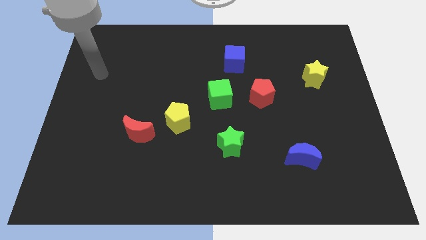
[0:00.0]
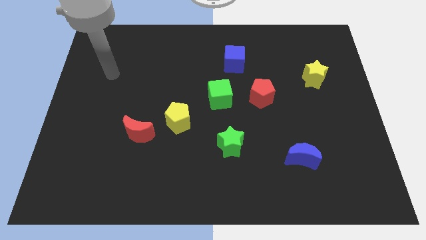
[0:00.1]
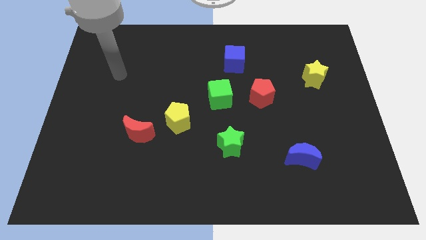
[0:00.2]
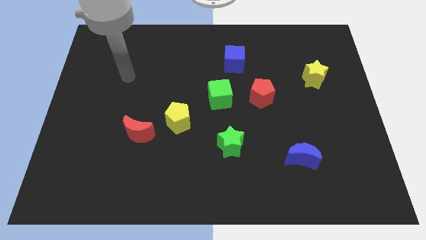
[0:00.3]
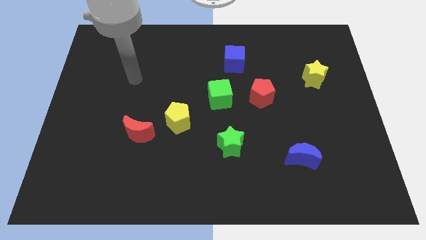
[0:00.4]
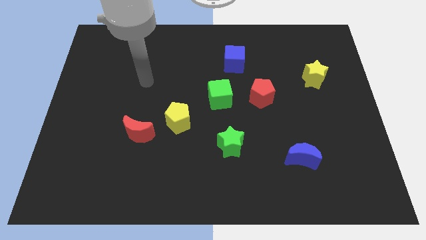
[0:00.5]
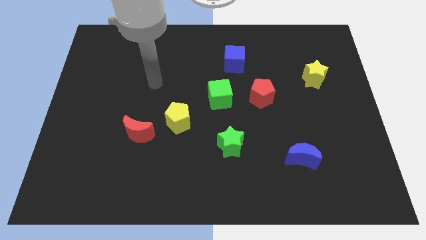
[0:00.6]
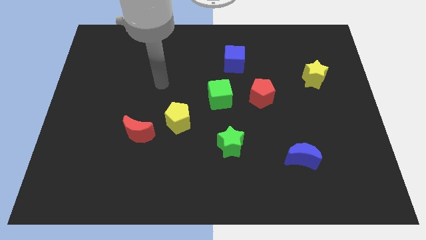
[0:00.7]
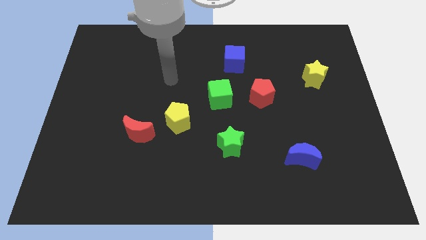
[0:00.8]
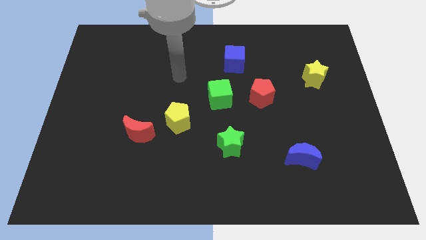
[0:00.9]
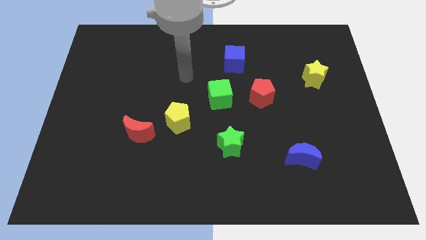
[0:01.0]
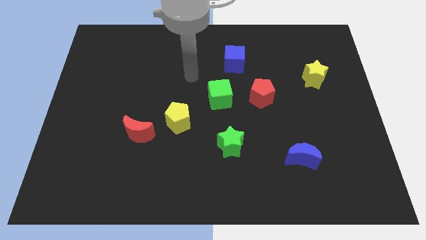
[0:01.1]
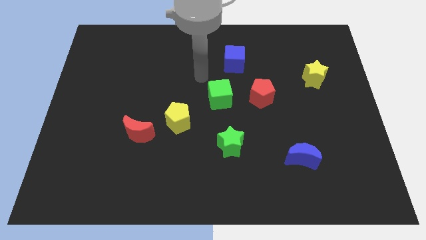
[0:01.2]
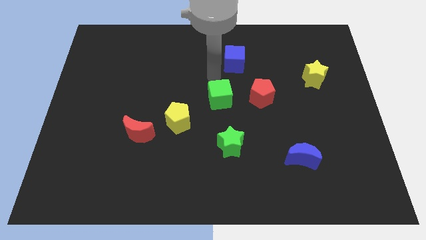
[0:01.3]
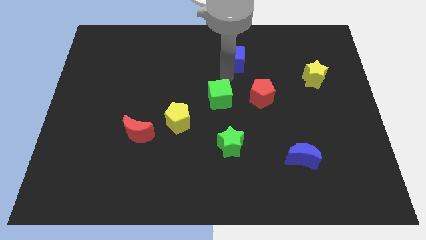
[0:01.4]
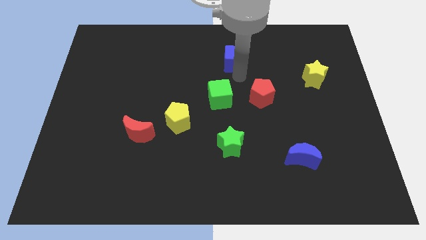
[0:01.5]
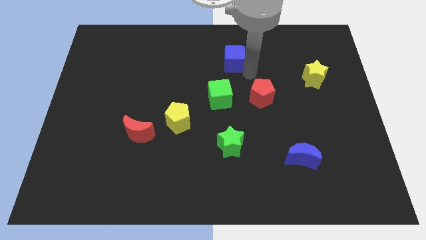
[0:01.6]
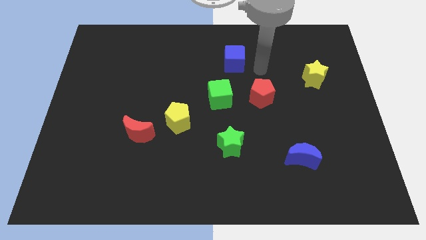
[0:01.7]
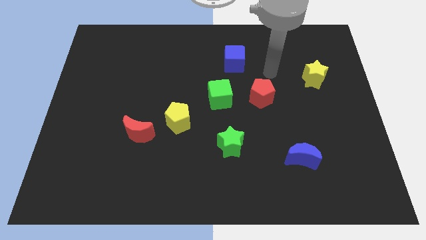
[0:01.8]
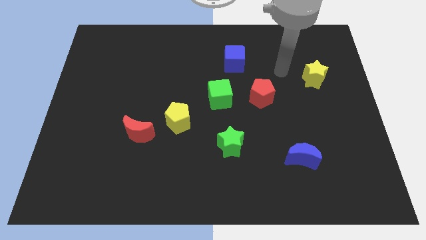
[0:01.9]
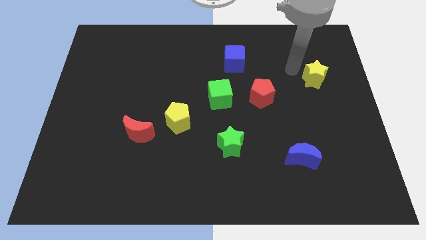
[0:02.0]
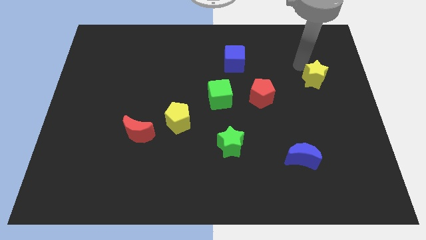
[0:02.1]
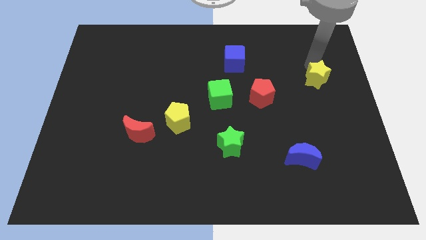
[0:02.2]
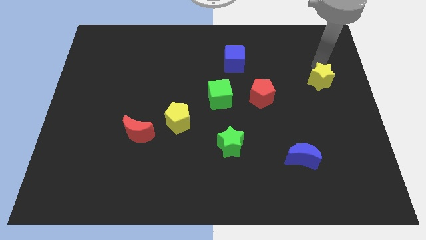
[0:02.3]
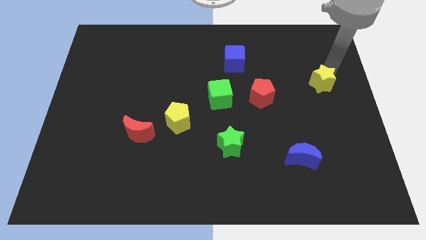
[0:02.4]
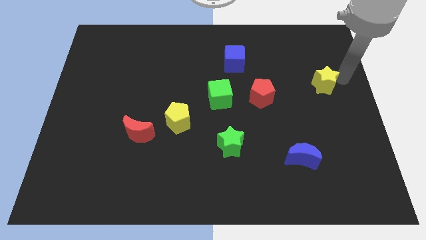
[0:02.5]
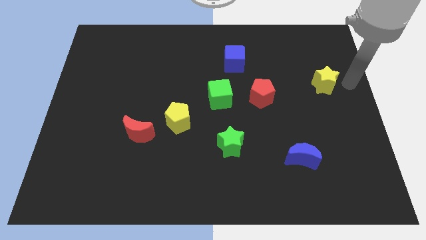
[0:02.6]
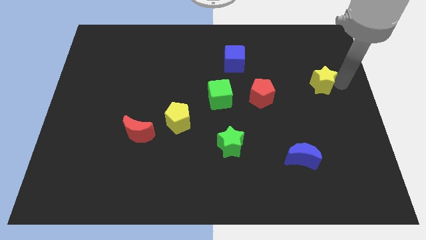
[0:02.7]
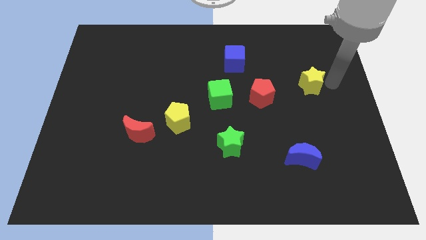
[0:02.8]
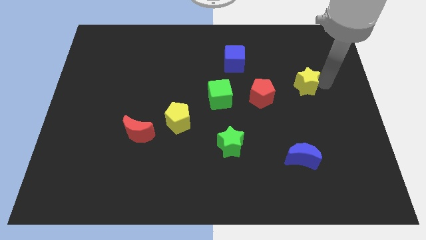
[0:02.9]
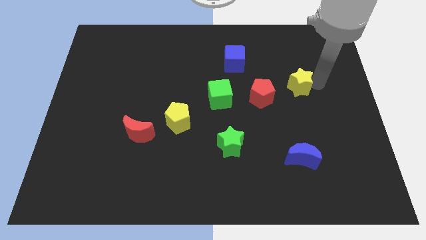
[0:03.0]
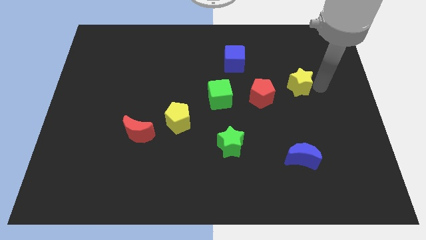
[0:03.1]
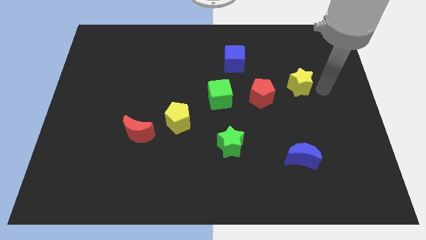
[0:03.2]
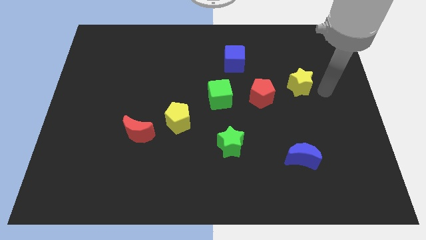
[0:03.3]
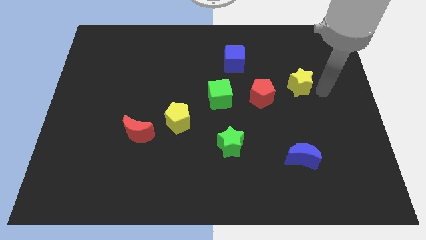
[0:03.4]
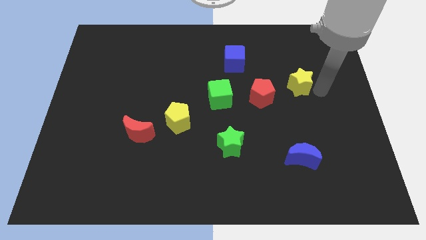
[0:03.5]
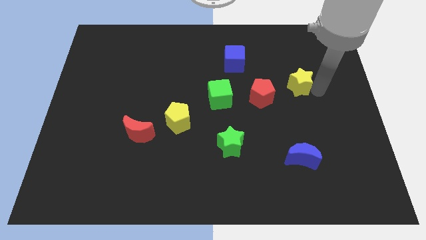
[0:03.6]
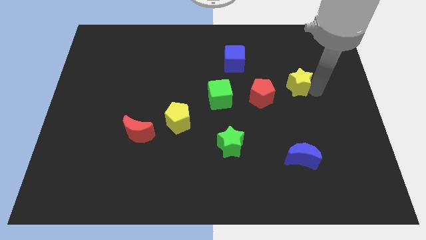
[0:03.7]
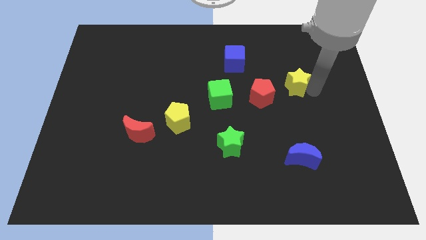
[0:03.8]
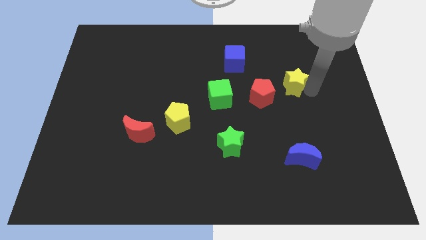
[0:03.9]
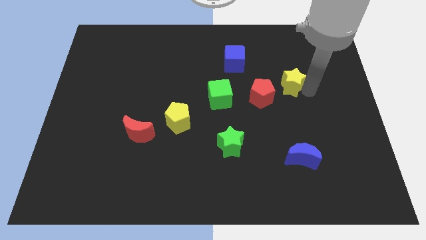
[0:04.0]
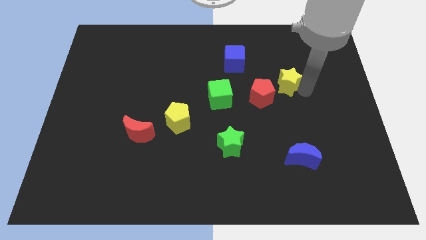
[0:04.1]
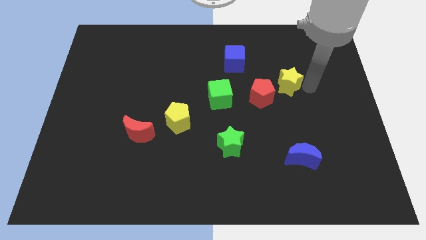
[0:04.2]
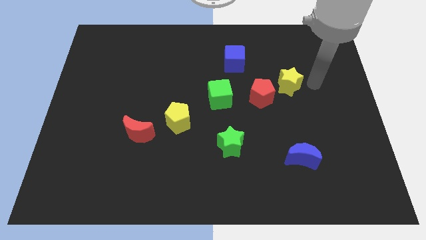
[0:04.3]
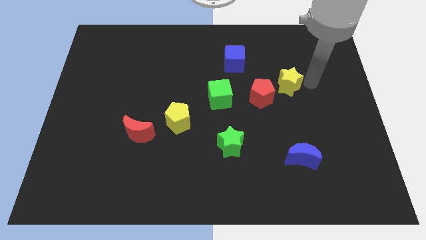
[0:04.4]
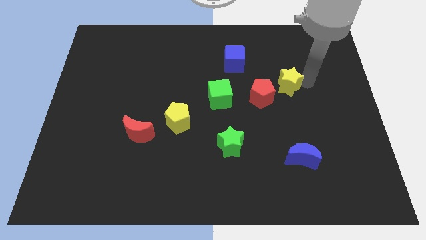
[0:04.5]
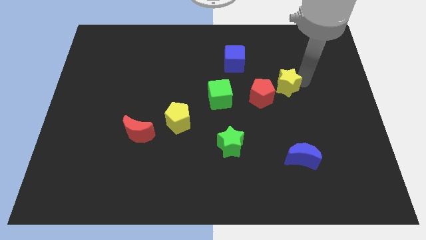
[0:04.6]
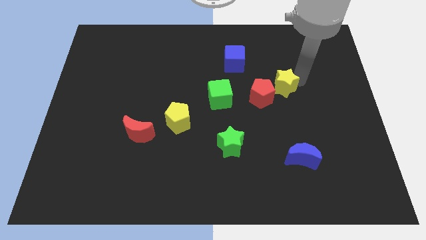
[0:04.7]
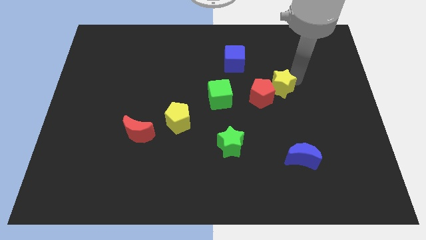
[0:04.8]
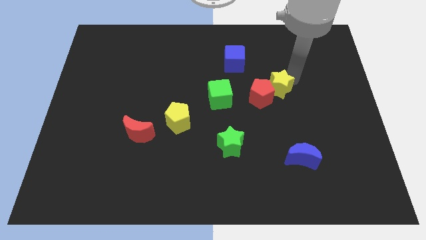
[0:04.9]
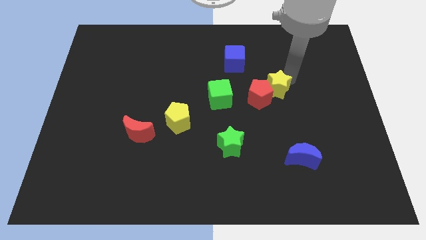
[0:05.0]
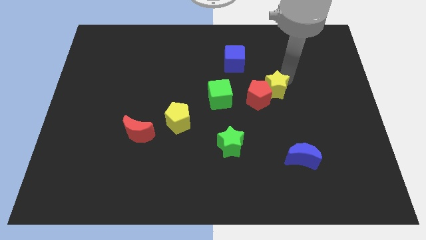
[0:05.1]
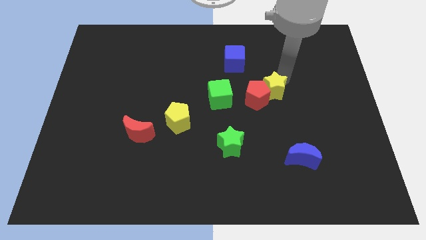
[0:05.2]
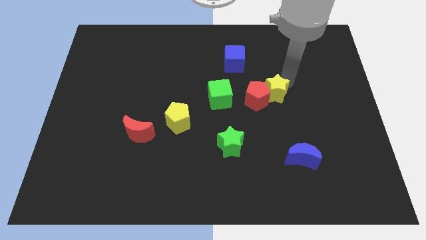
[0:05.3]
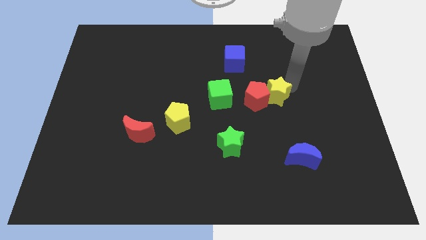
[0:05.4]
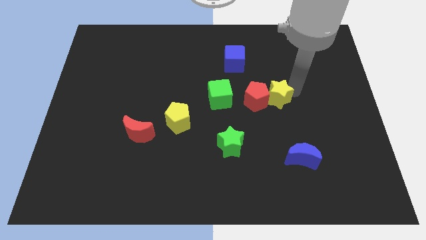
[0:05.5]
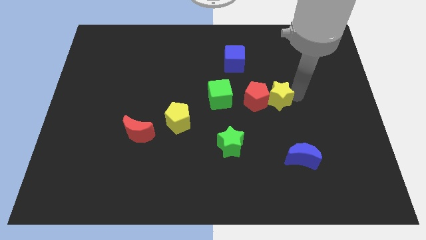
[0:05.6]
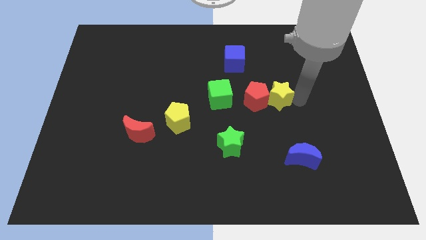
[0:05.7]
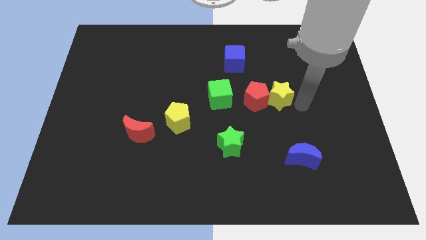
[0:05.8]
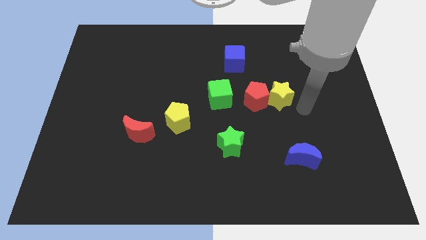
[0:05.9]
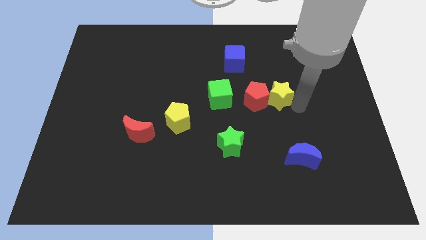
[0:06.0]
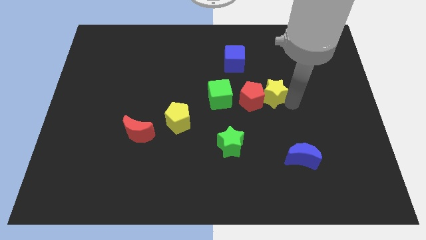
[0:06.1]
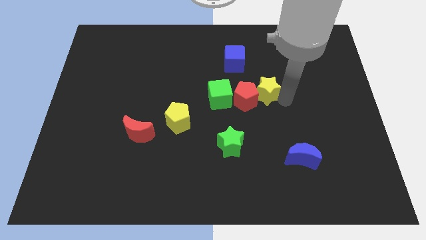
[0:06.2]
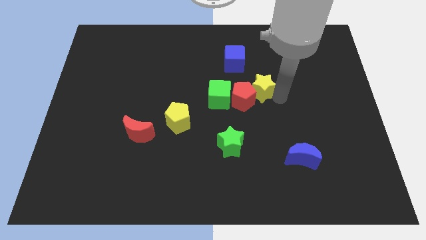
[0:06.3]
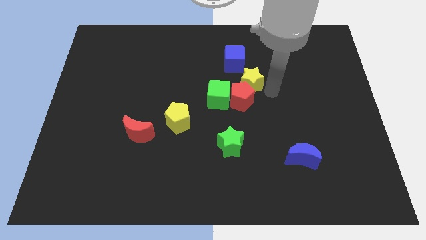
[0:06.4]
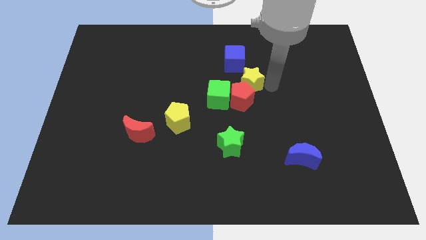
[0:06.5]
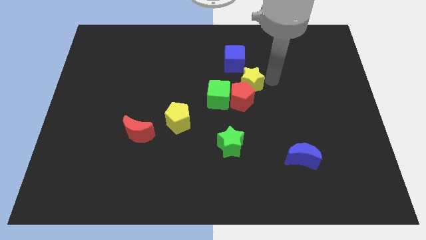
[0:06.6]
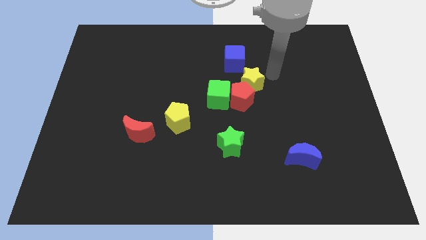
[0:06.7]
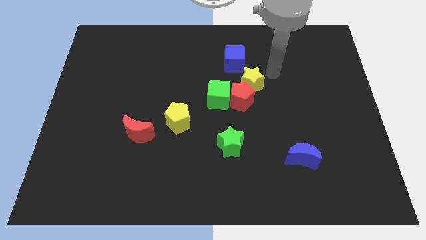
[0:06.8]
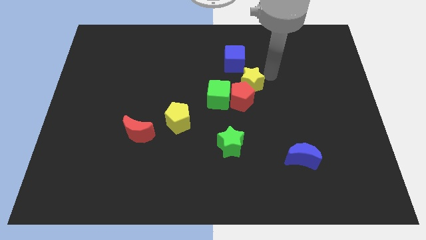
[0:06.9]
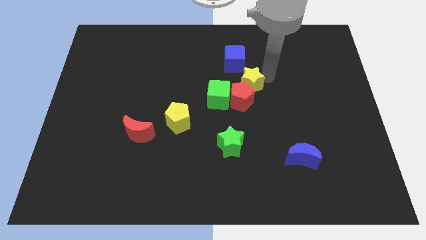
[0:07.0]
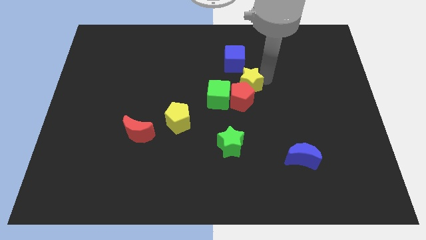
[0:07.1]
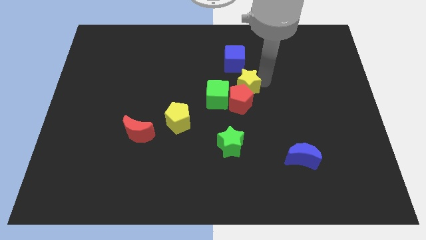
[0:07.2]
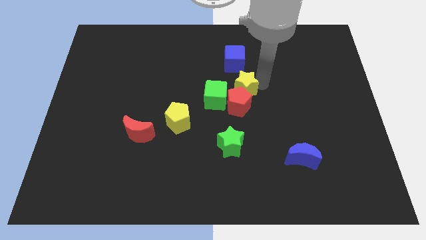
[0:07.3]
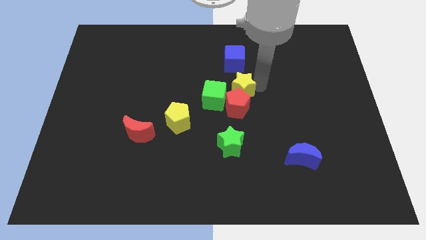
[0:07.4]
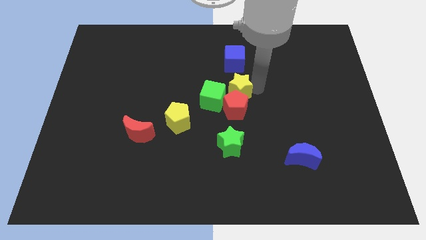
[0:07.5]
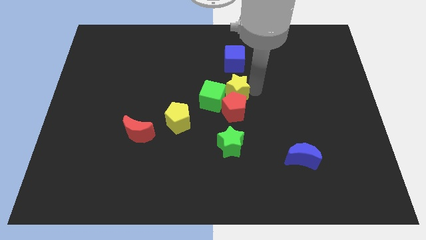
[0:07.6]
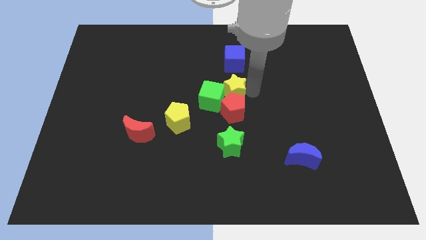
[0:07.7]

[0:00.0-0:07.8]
move the yellow star close to the green cube
